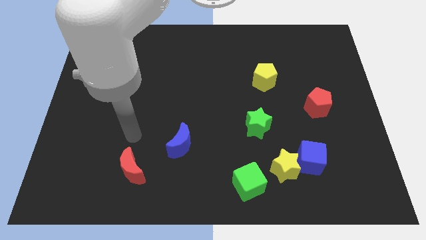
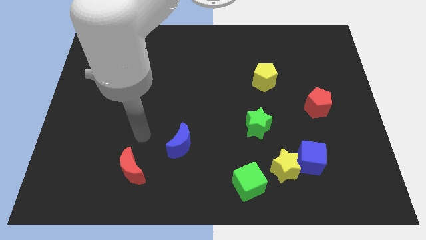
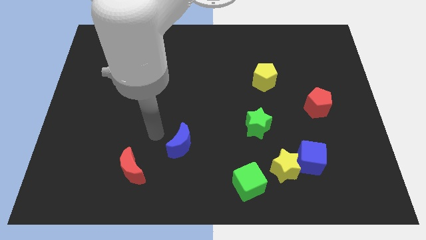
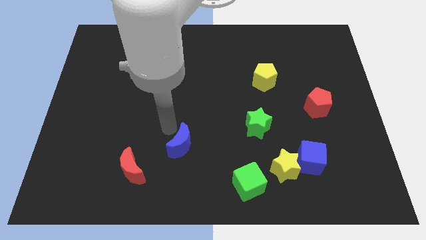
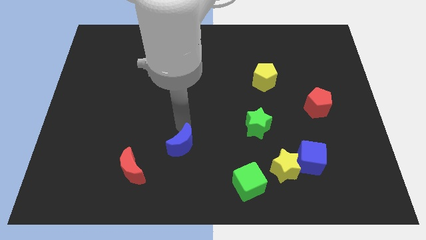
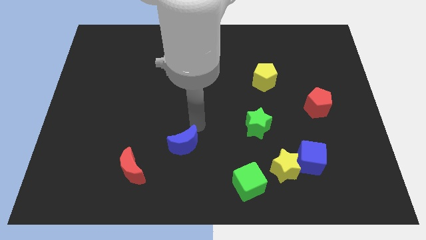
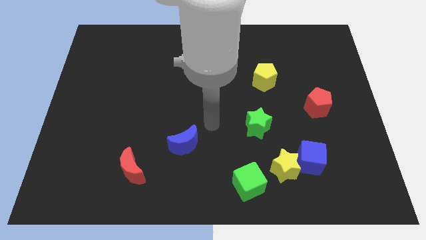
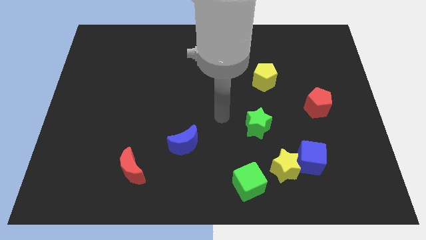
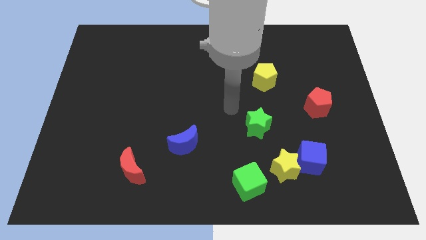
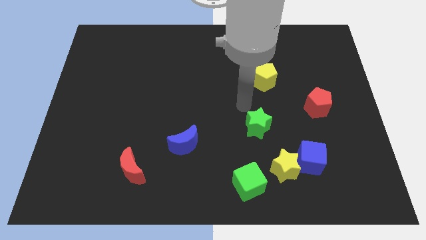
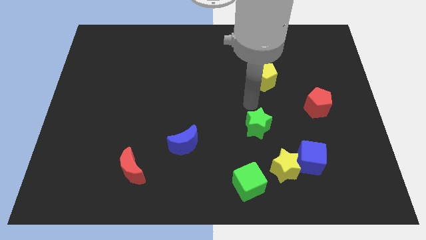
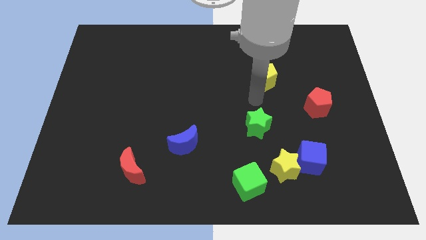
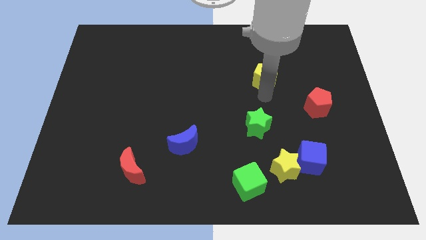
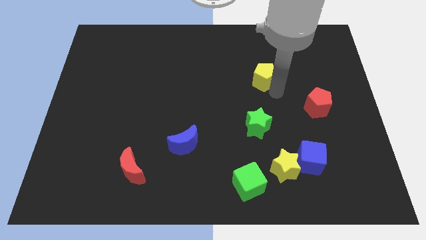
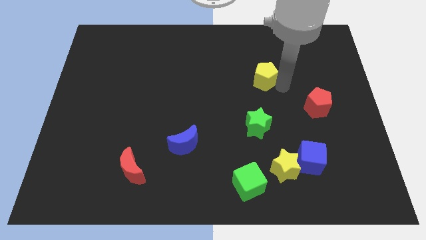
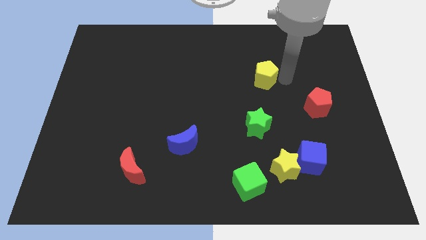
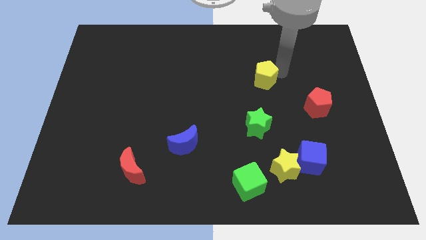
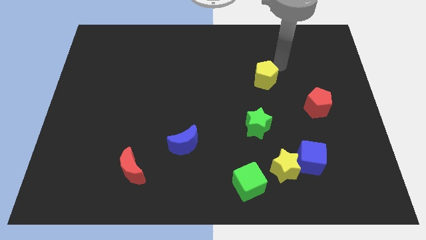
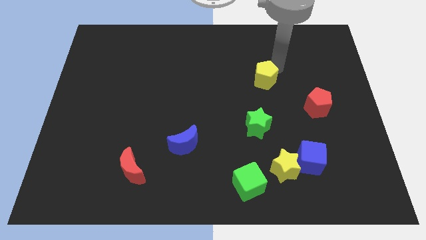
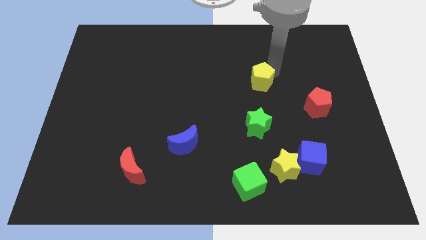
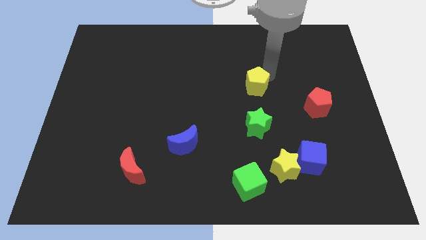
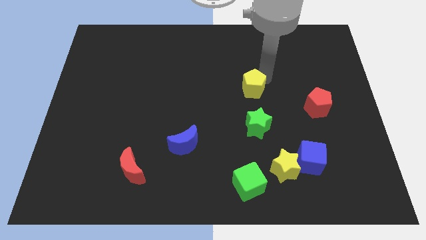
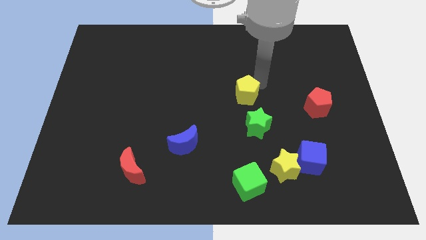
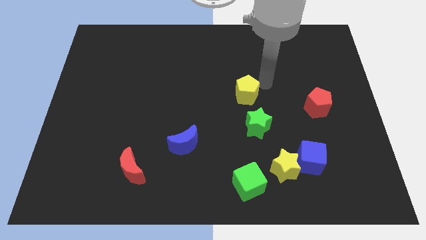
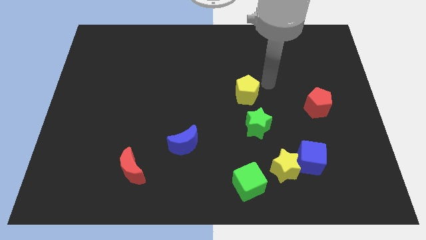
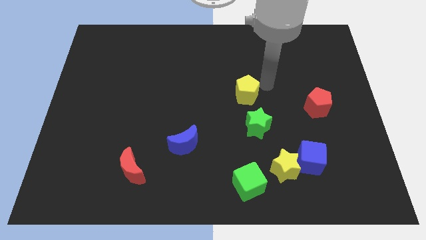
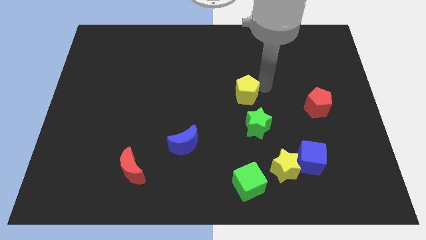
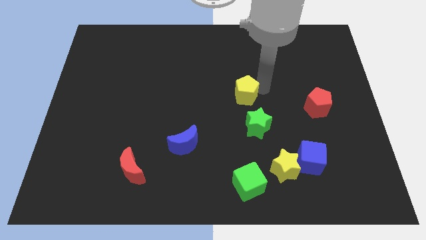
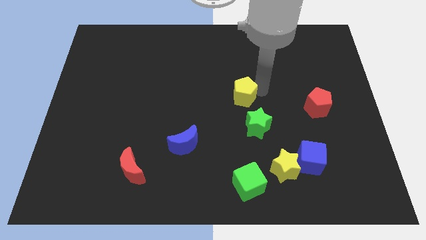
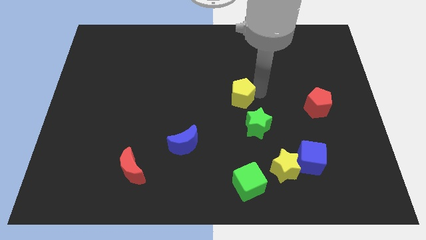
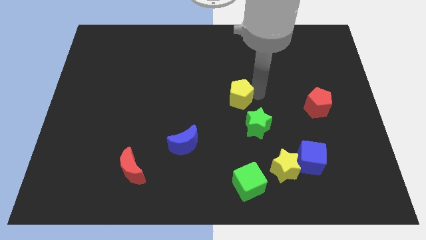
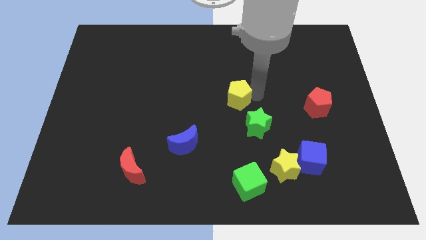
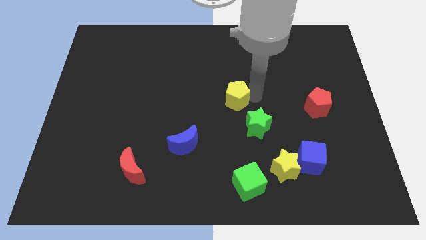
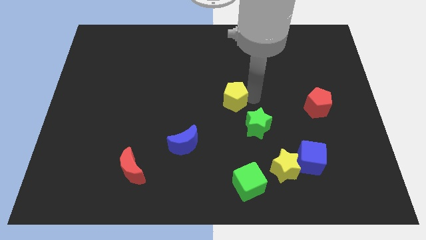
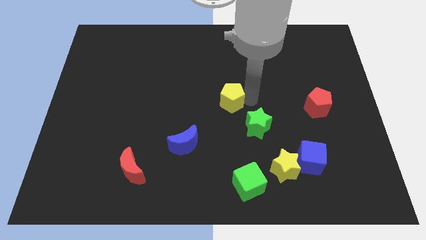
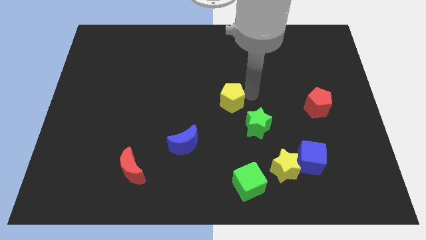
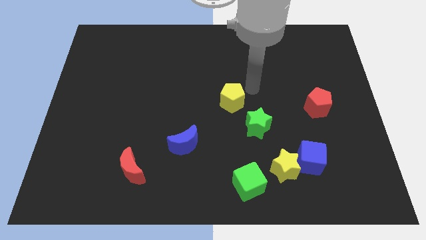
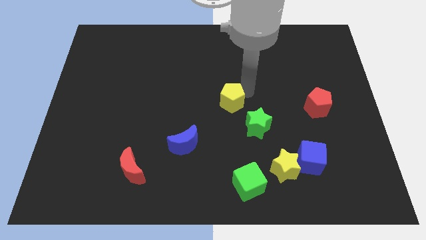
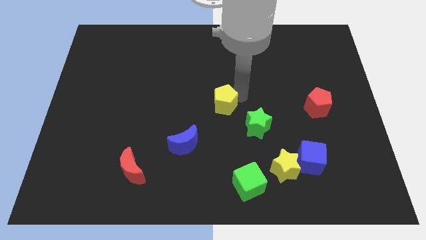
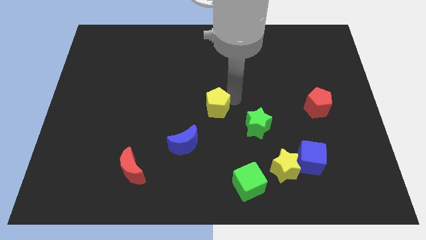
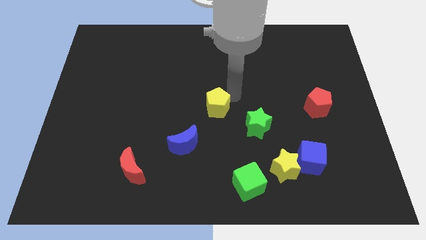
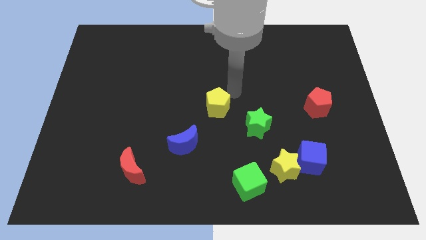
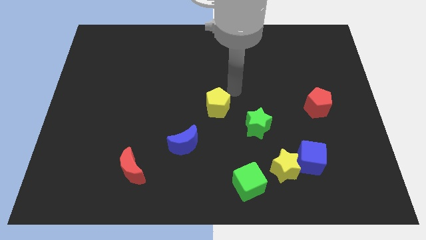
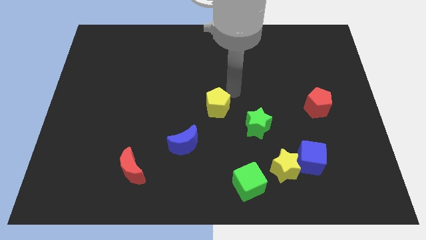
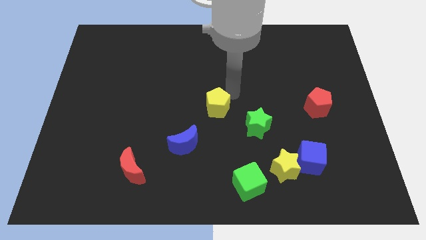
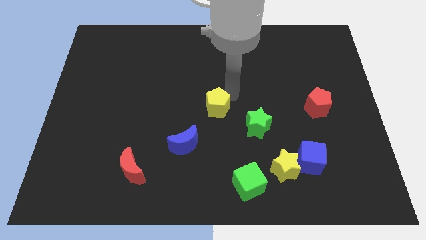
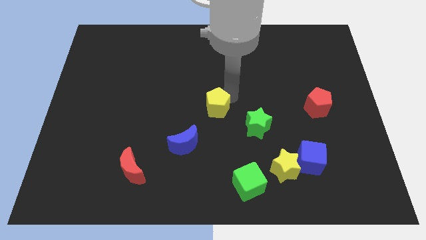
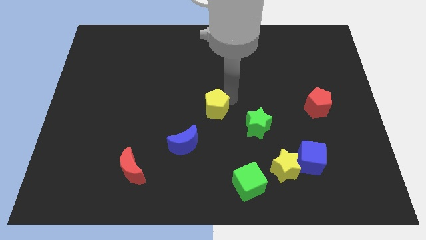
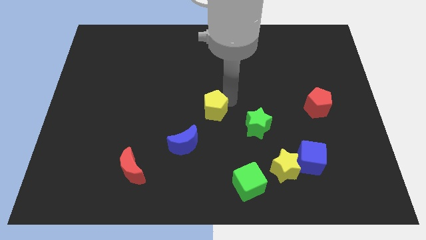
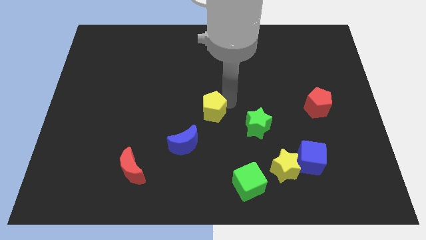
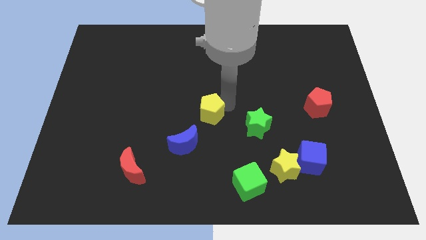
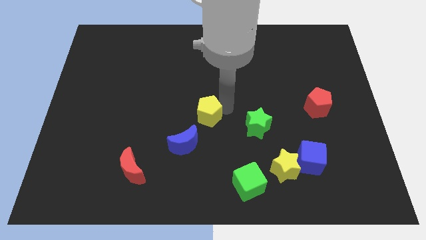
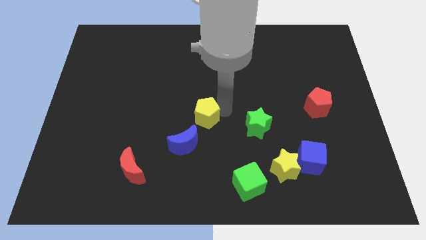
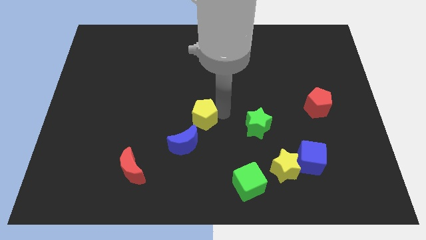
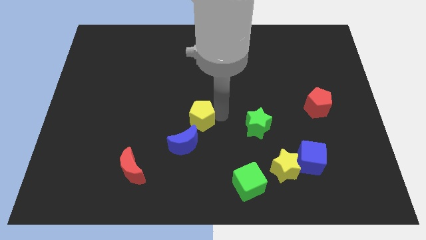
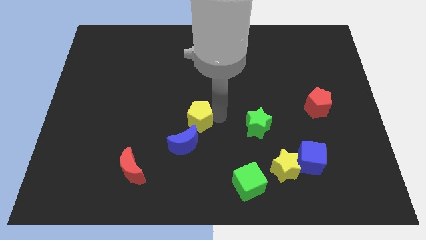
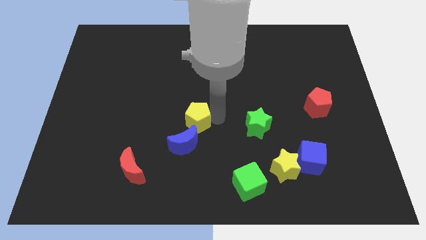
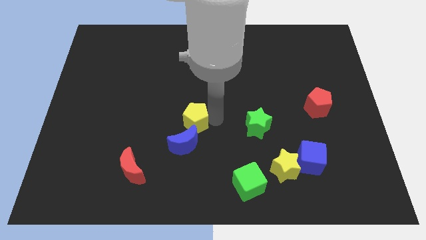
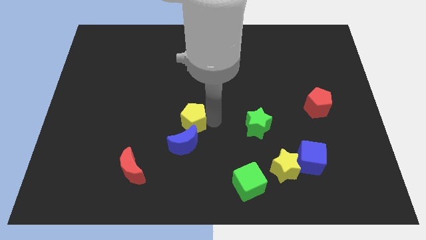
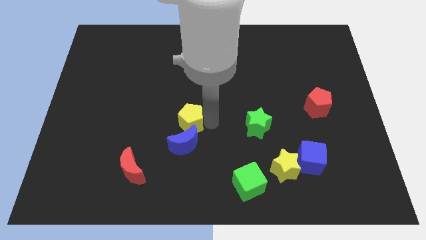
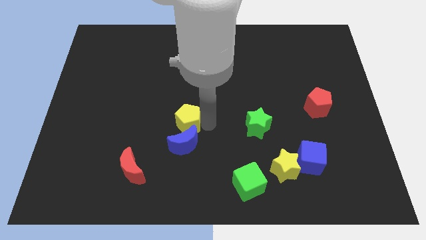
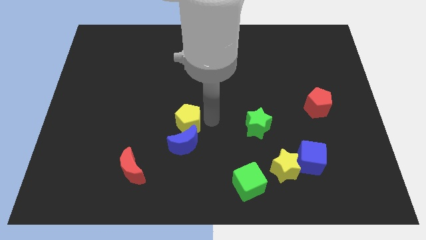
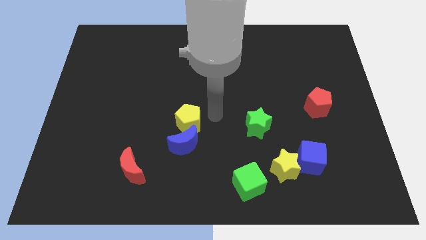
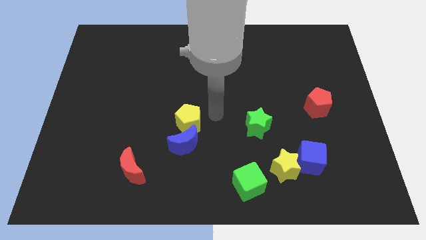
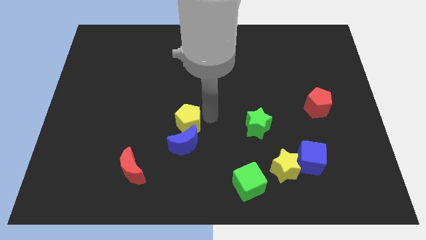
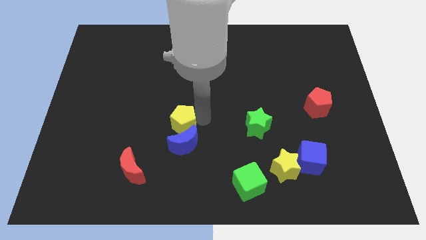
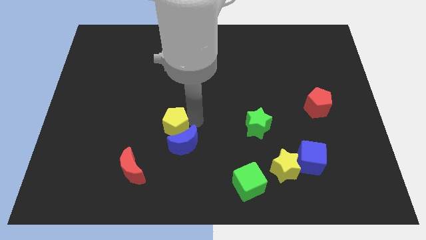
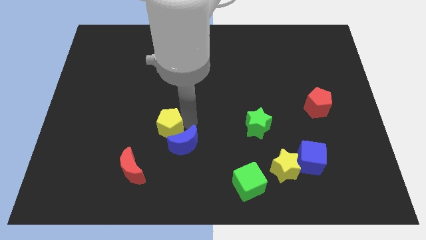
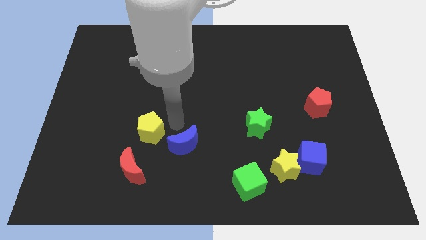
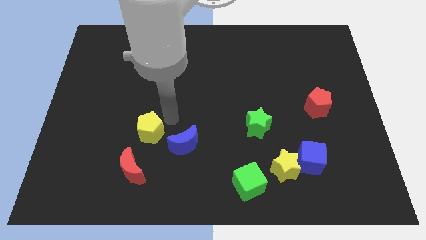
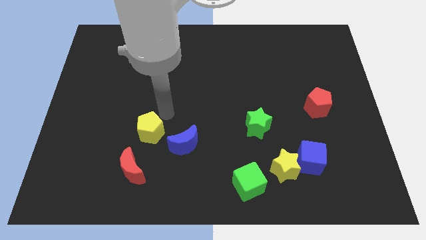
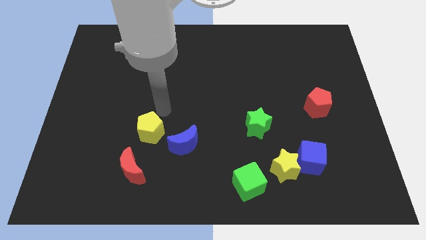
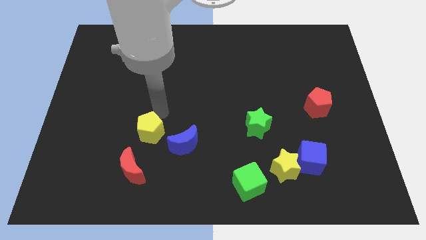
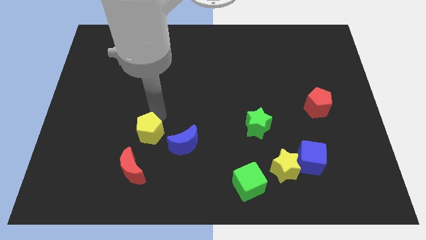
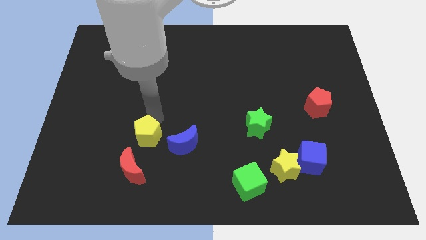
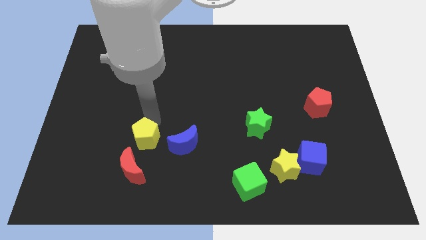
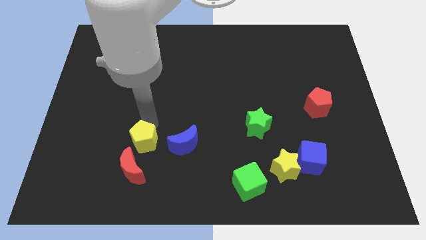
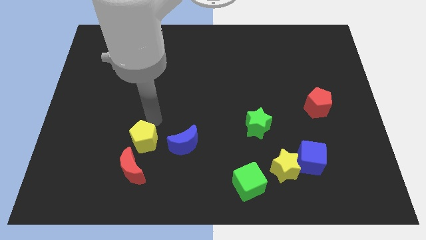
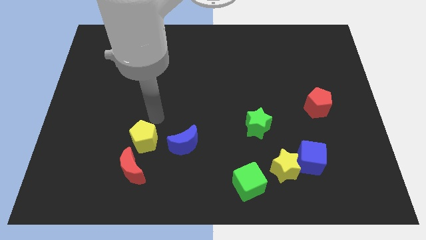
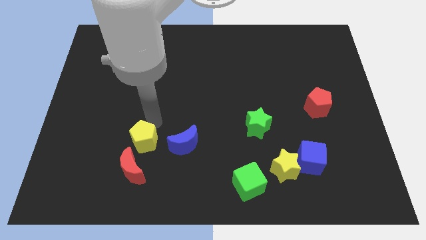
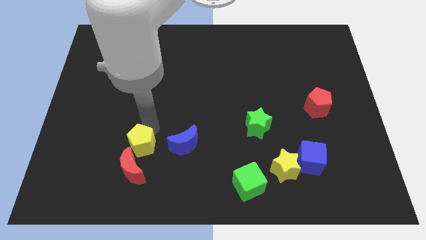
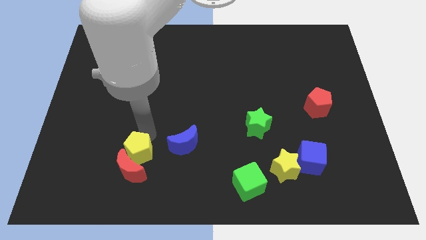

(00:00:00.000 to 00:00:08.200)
move the yellow pentagon close to the red moon
